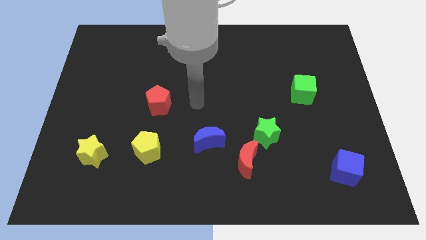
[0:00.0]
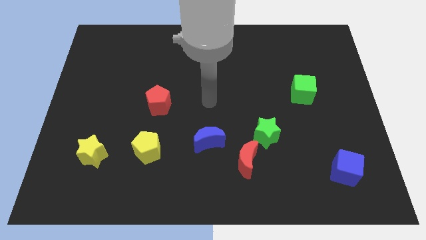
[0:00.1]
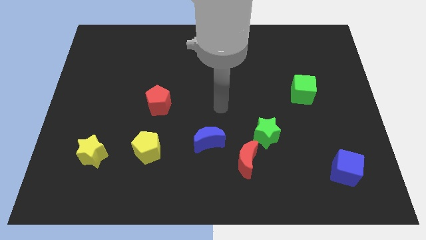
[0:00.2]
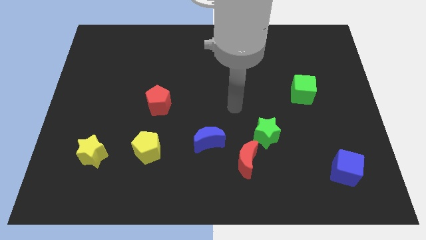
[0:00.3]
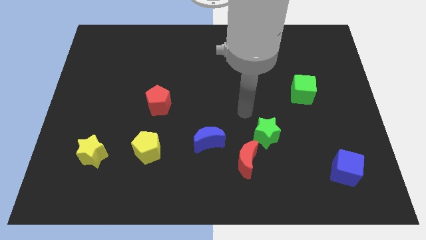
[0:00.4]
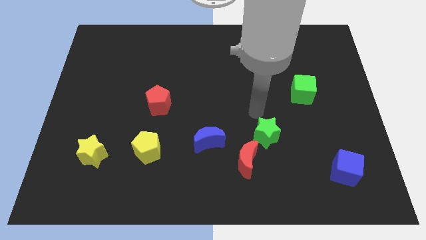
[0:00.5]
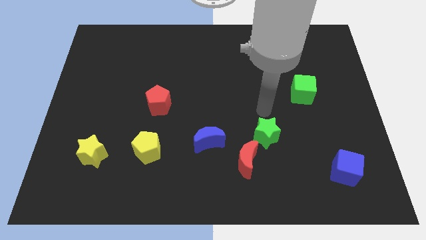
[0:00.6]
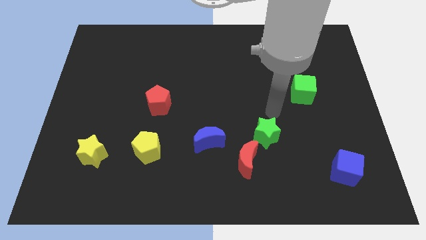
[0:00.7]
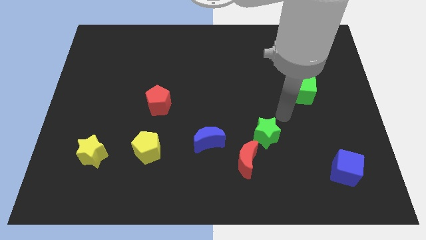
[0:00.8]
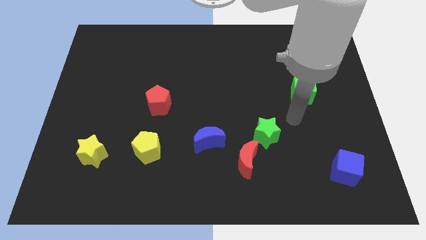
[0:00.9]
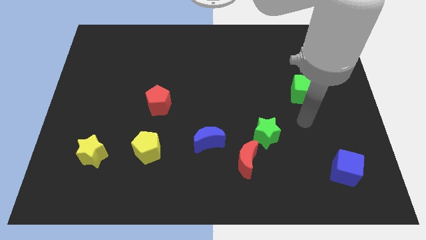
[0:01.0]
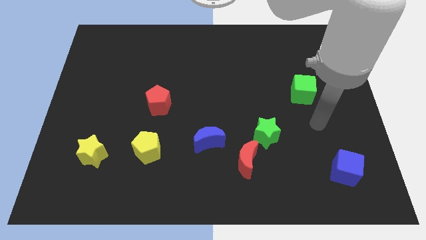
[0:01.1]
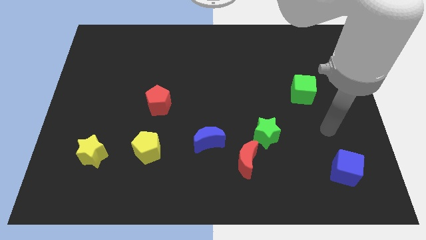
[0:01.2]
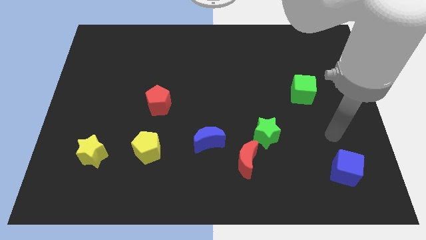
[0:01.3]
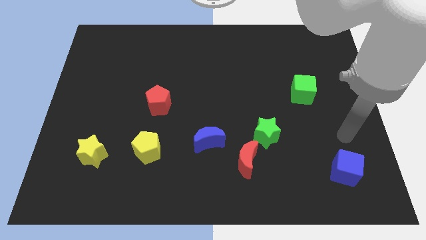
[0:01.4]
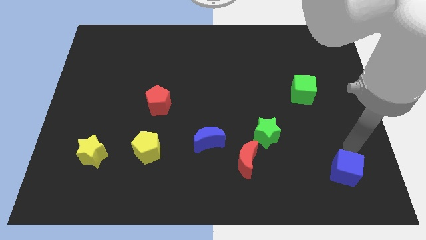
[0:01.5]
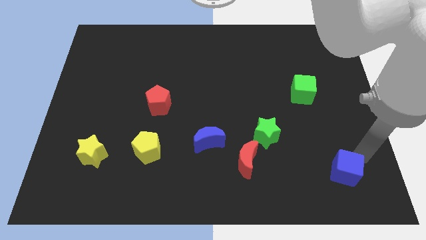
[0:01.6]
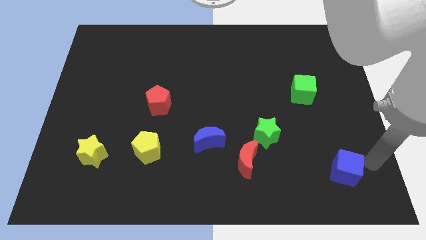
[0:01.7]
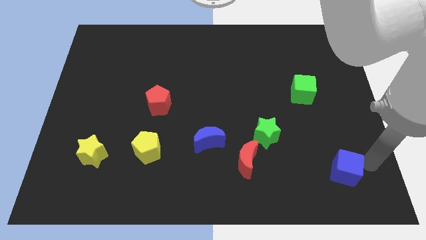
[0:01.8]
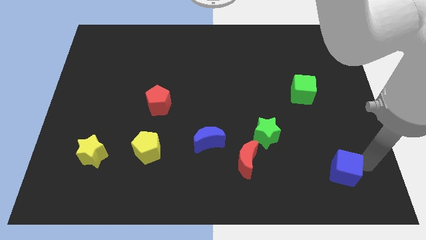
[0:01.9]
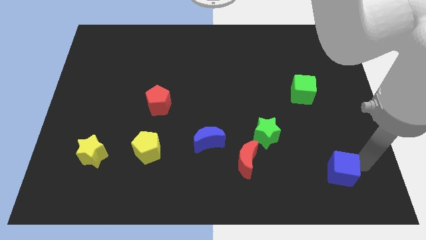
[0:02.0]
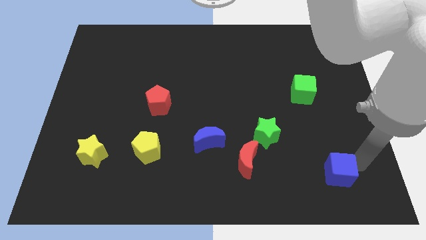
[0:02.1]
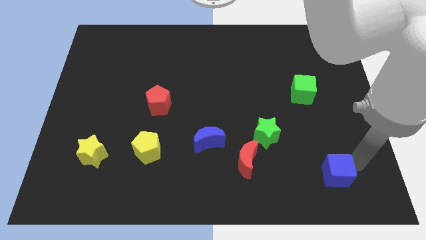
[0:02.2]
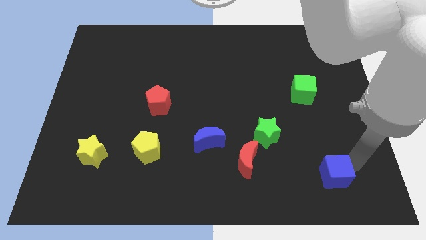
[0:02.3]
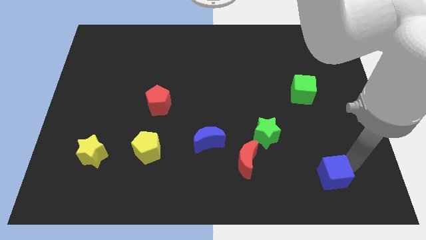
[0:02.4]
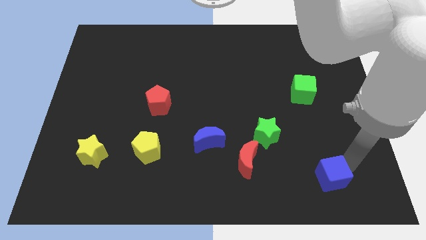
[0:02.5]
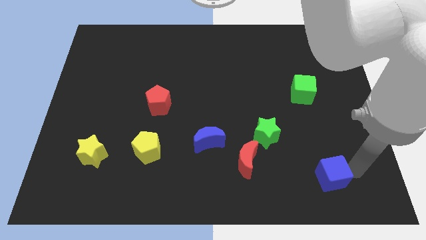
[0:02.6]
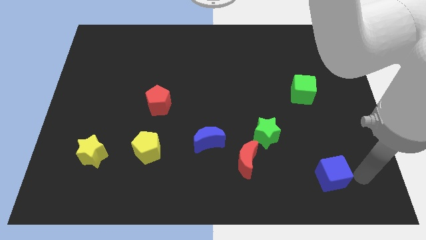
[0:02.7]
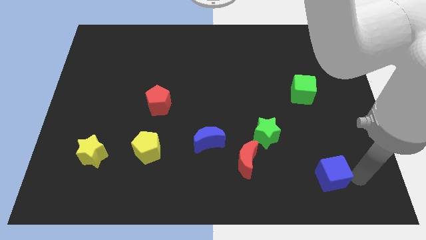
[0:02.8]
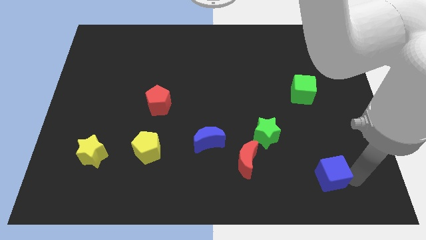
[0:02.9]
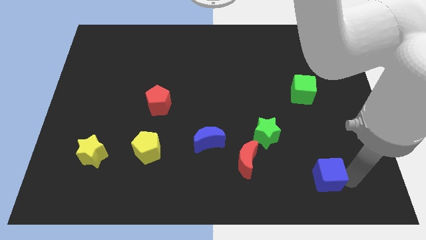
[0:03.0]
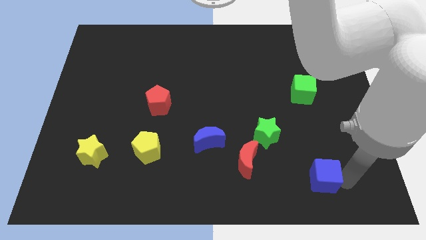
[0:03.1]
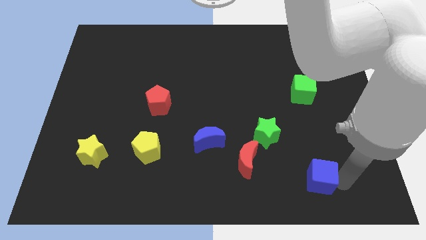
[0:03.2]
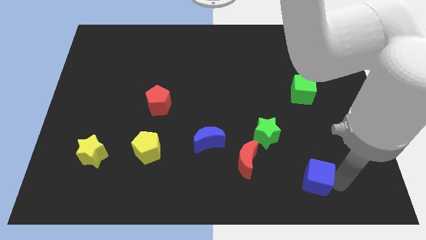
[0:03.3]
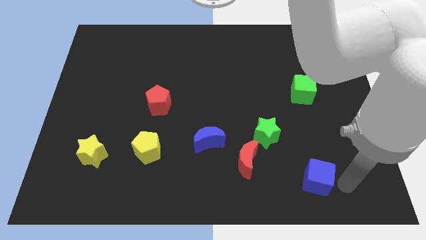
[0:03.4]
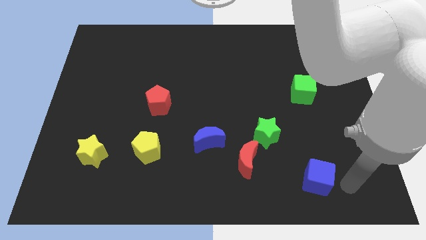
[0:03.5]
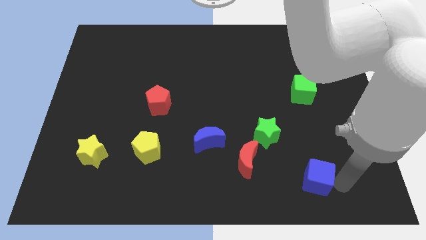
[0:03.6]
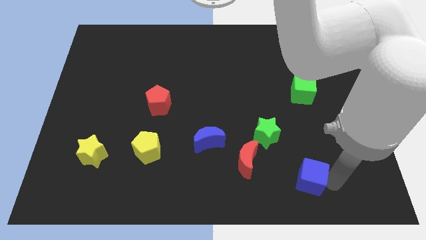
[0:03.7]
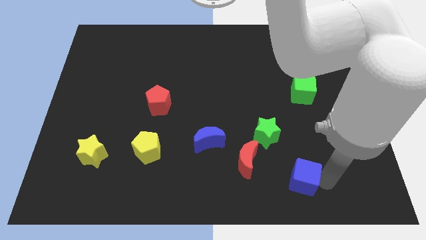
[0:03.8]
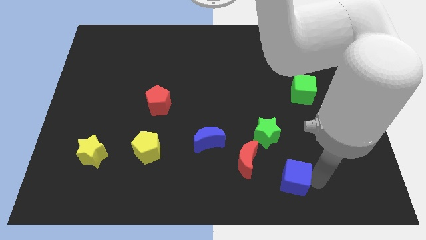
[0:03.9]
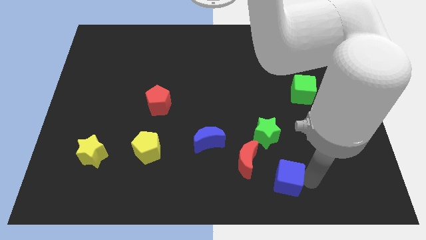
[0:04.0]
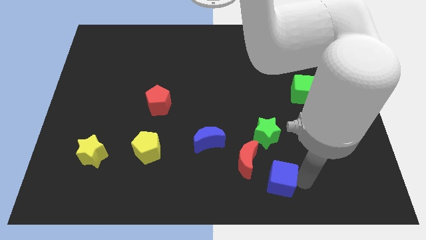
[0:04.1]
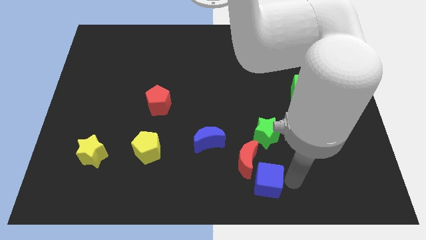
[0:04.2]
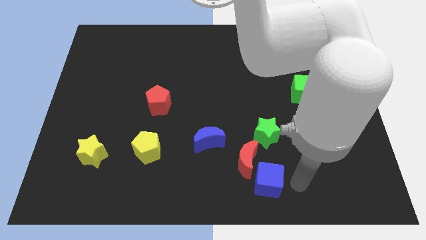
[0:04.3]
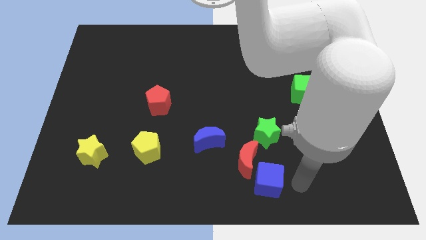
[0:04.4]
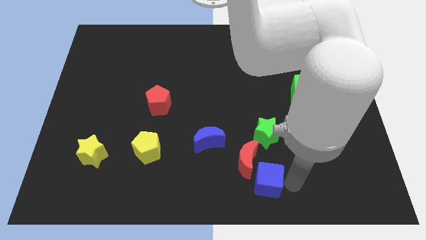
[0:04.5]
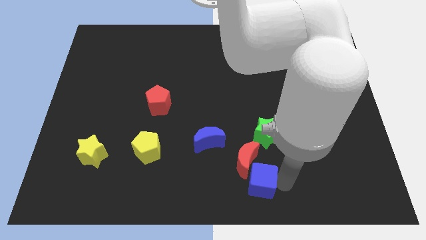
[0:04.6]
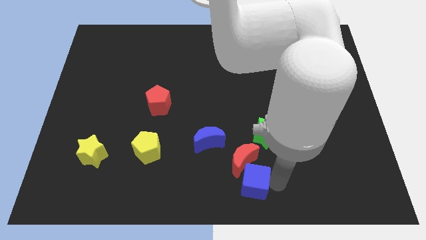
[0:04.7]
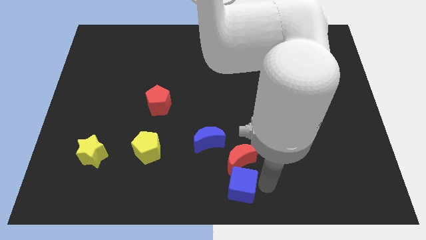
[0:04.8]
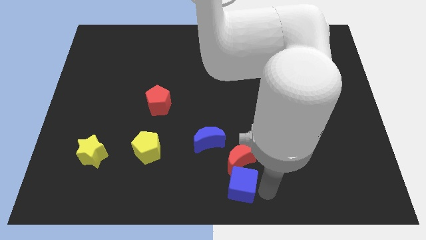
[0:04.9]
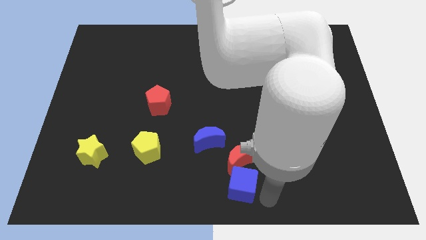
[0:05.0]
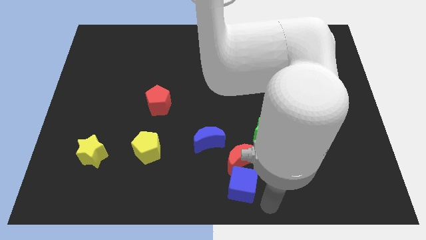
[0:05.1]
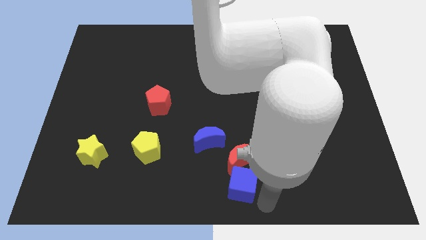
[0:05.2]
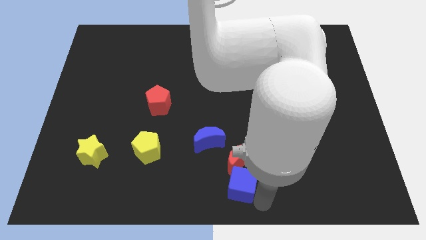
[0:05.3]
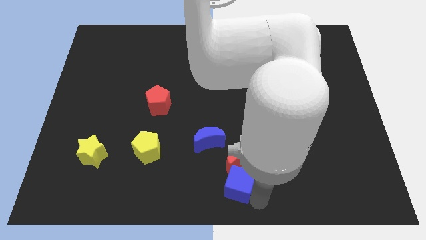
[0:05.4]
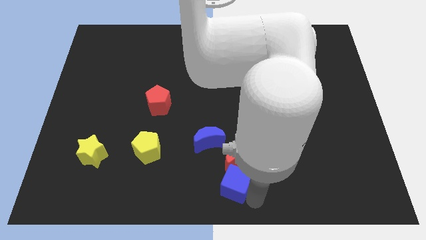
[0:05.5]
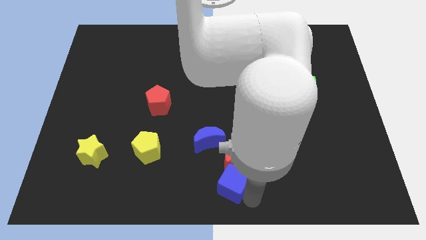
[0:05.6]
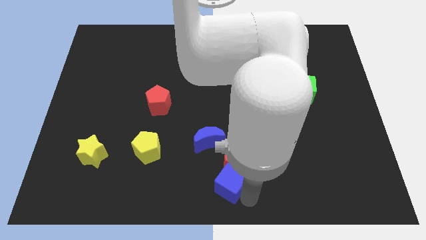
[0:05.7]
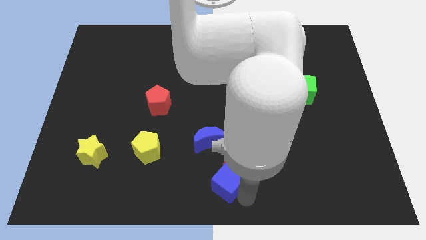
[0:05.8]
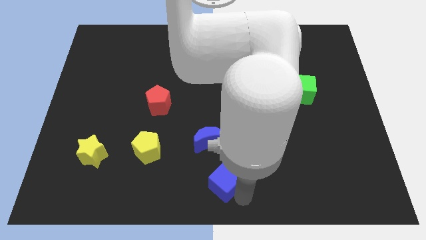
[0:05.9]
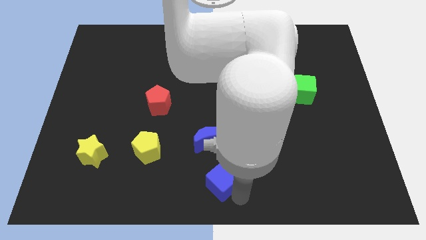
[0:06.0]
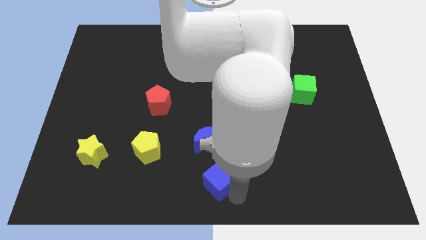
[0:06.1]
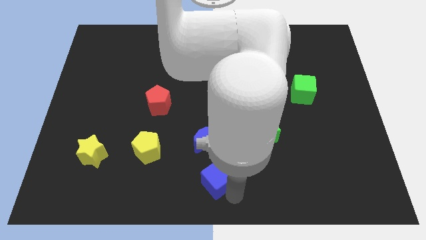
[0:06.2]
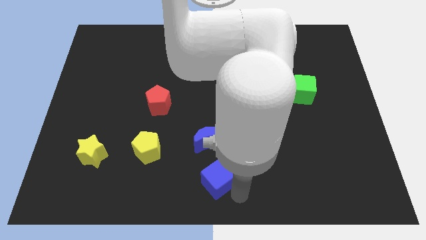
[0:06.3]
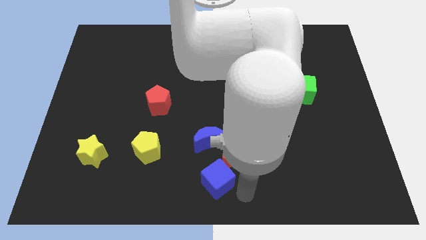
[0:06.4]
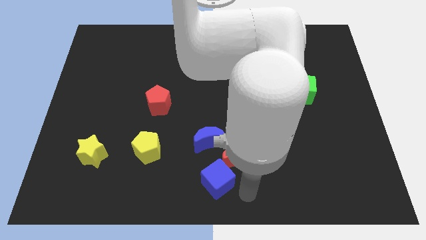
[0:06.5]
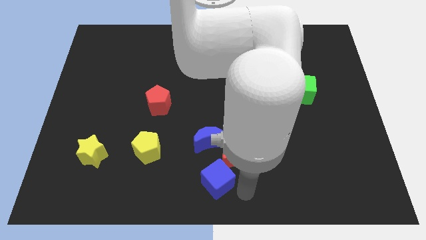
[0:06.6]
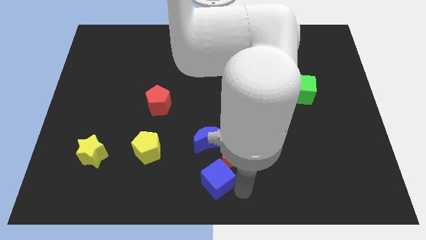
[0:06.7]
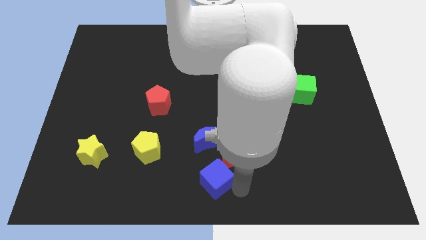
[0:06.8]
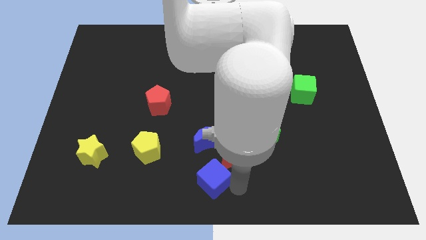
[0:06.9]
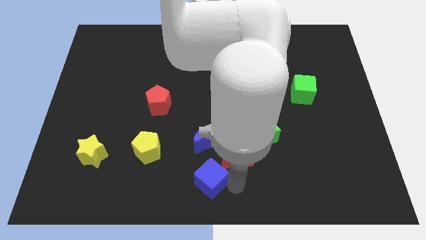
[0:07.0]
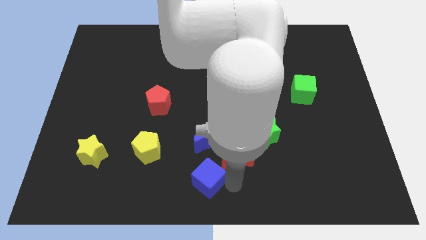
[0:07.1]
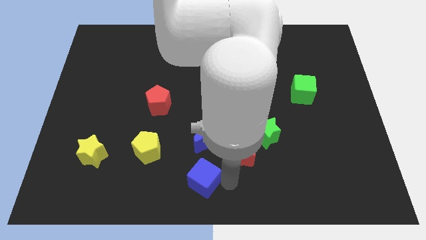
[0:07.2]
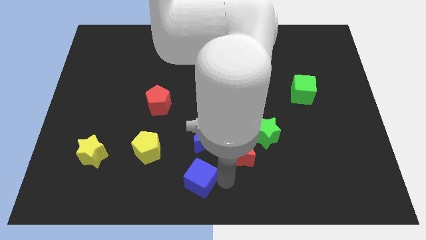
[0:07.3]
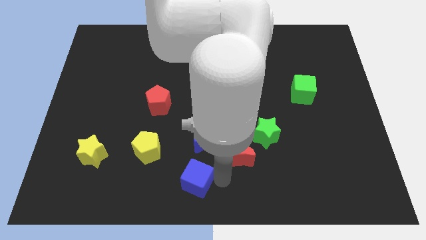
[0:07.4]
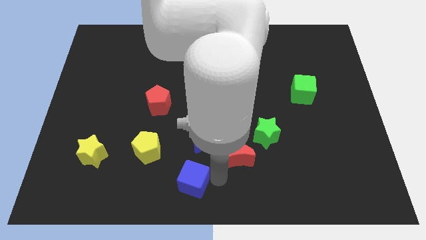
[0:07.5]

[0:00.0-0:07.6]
put the blue cube diagonally down and to the right of the yellow pentagon
